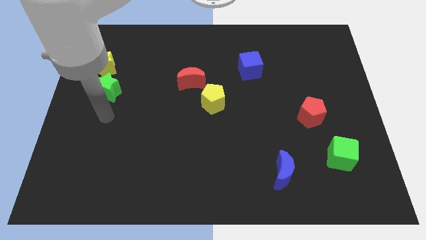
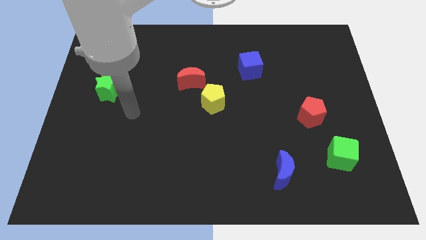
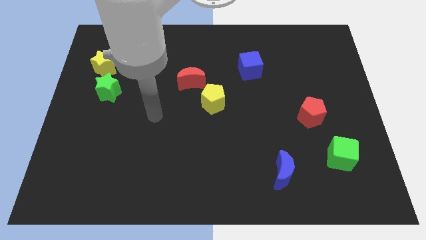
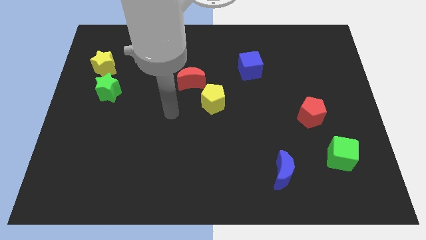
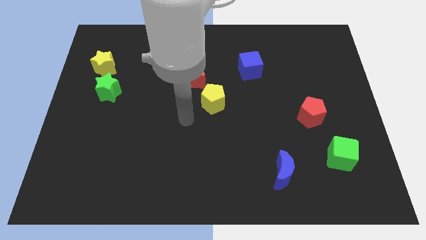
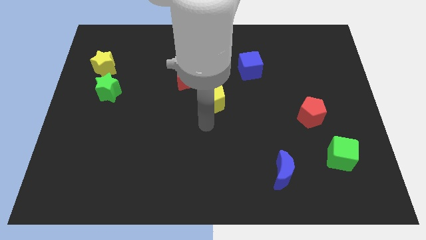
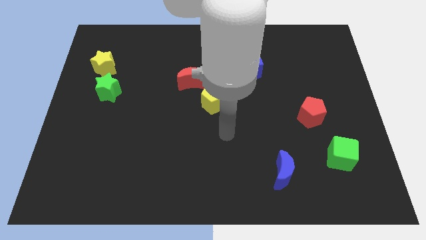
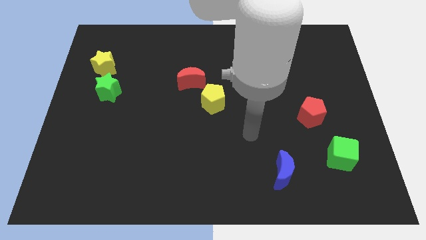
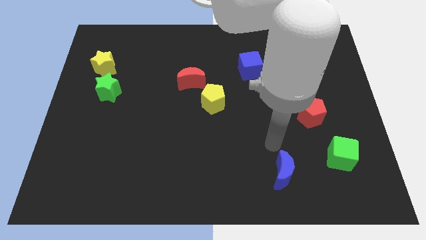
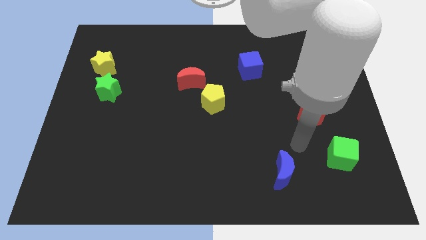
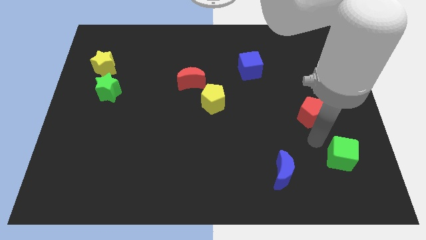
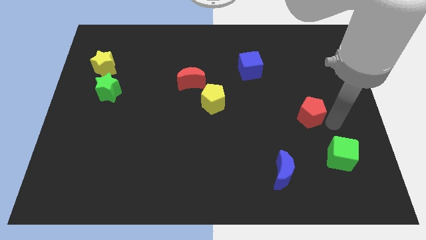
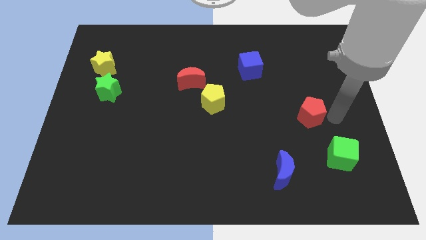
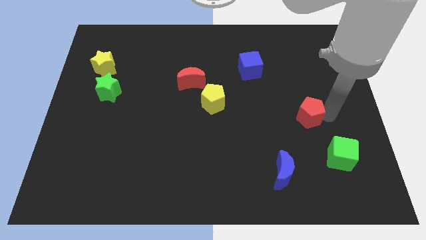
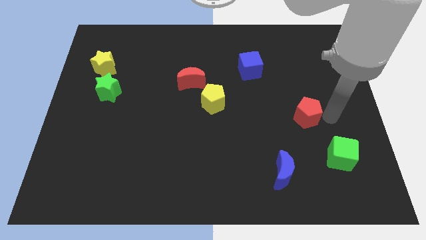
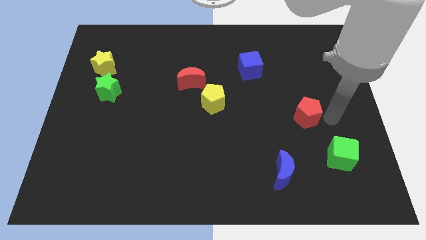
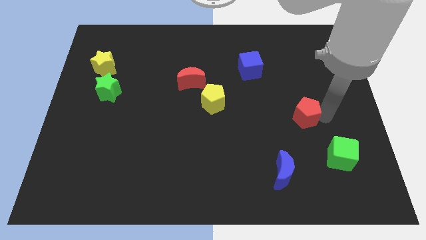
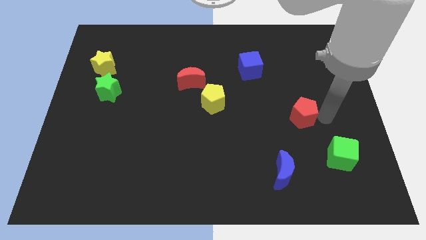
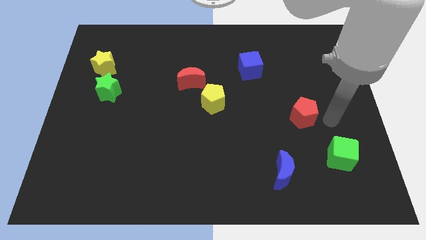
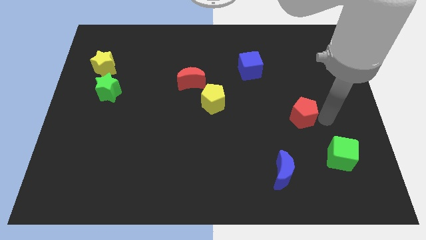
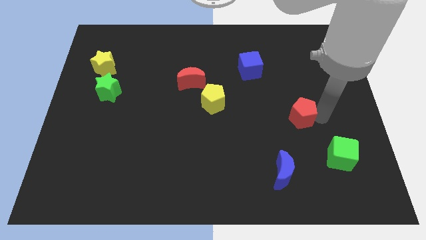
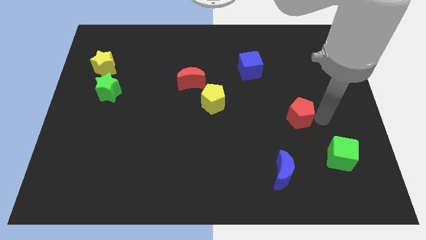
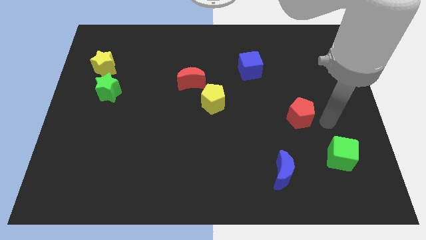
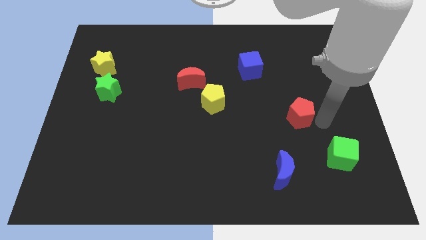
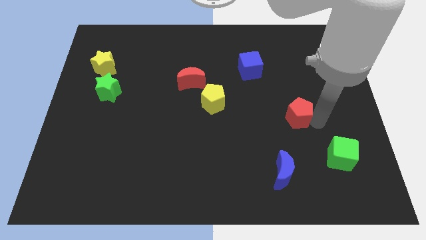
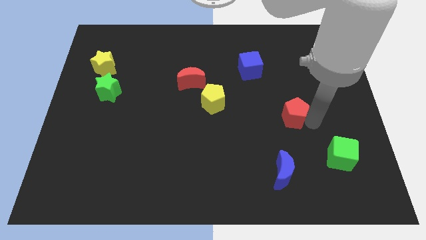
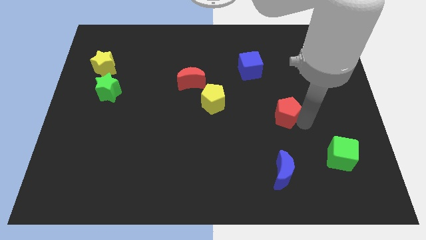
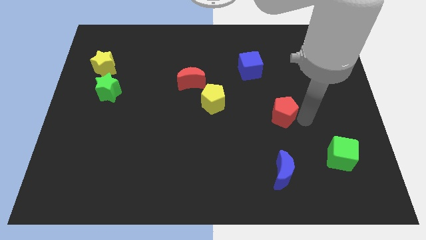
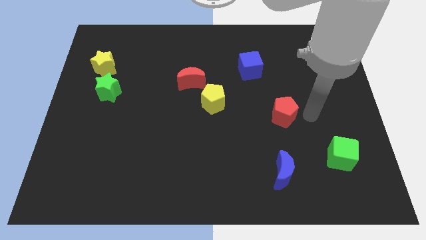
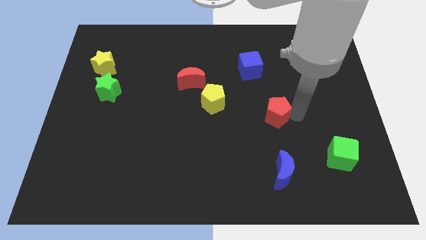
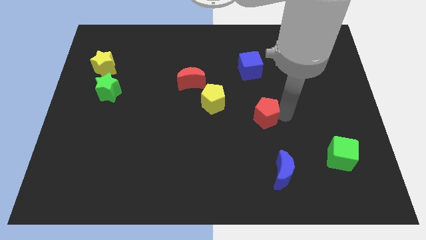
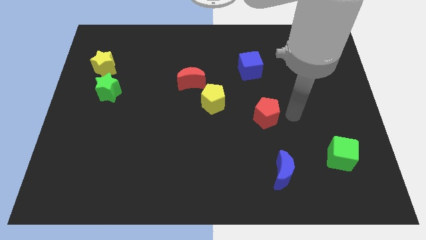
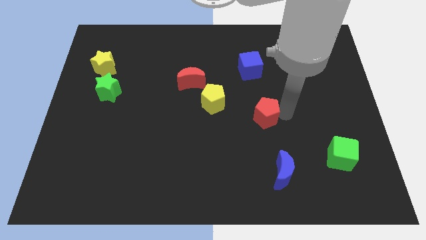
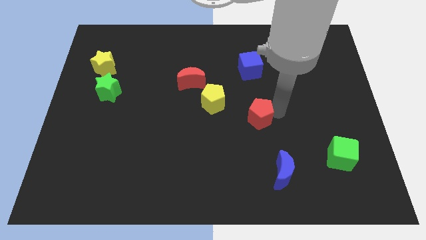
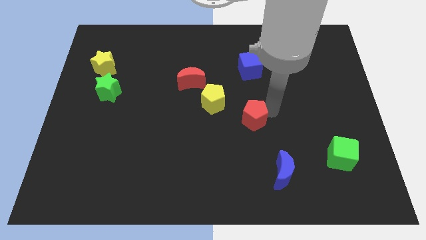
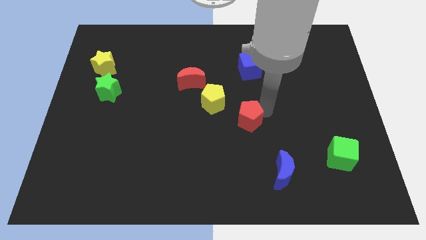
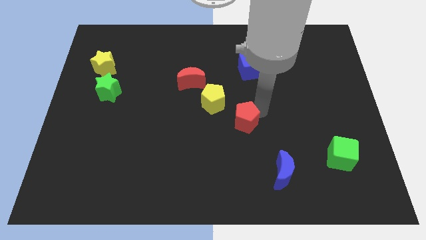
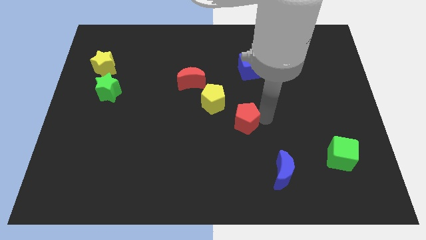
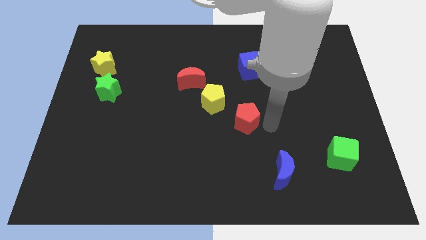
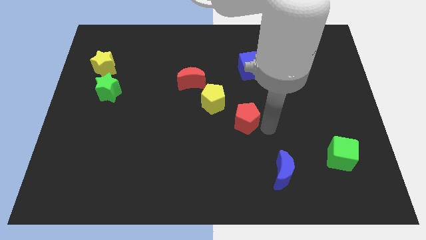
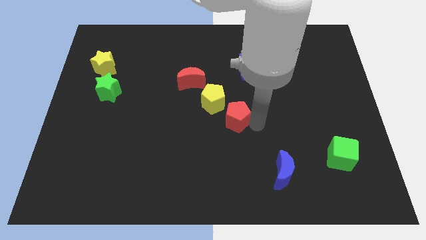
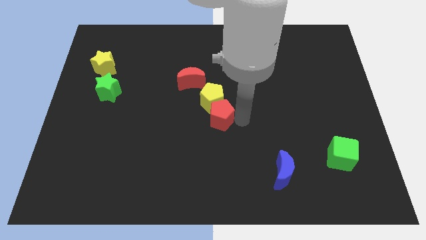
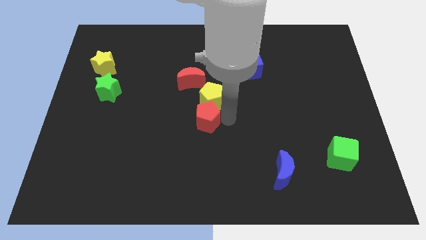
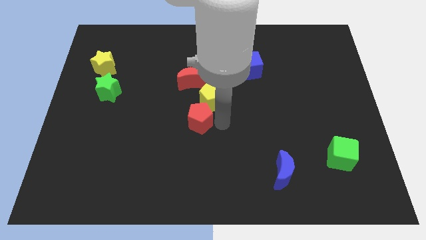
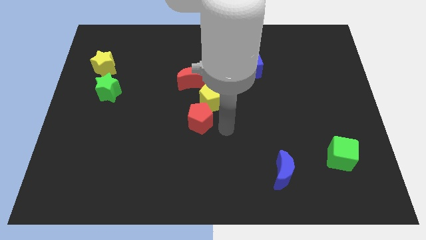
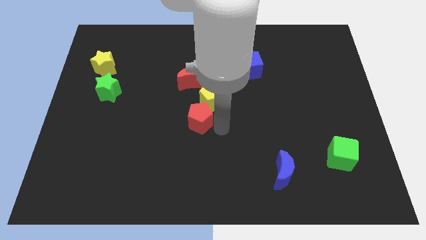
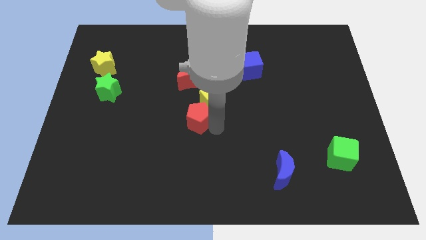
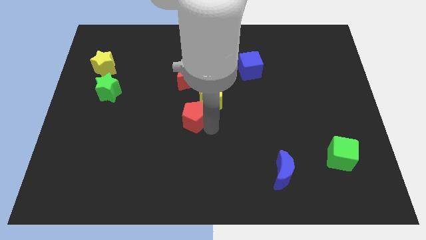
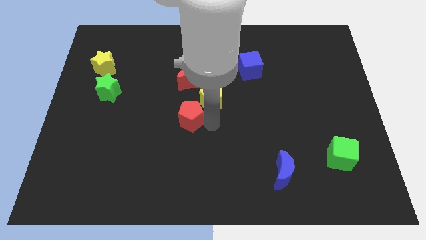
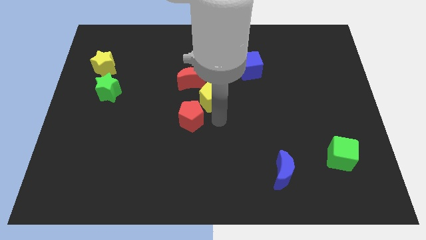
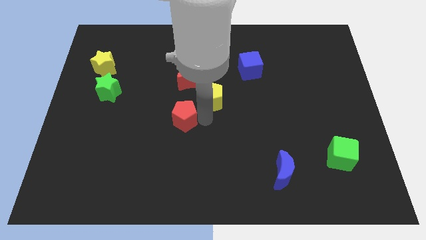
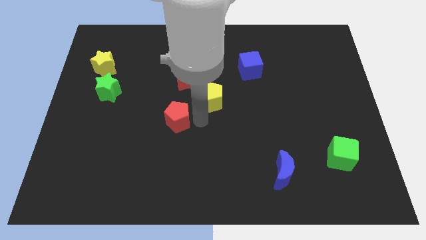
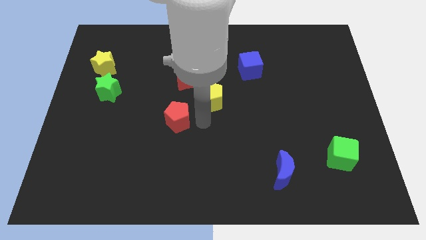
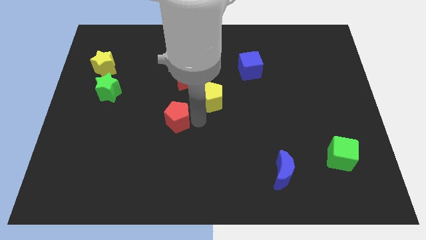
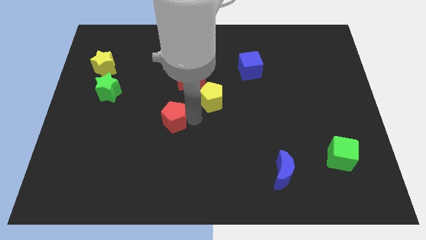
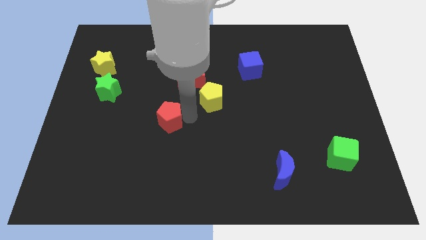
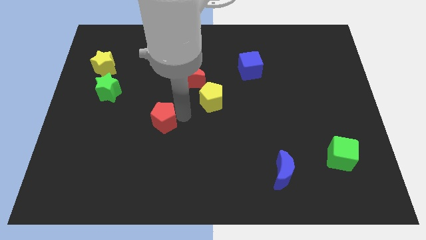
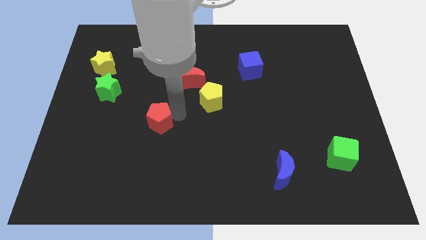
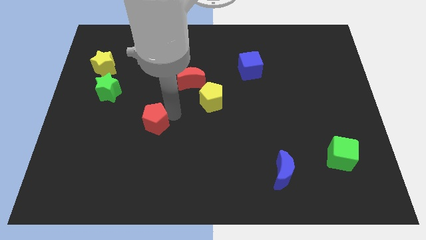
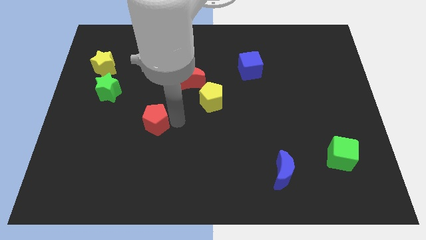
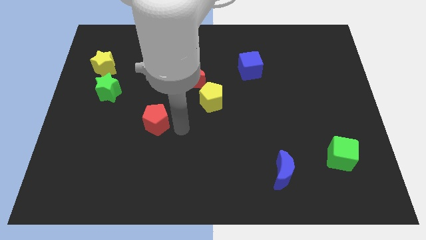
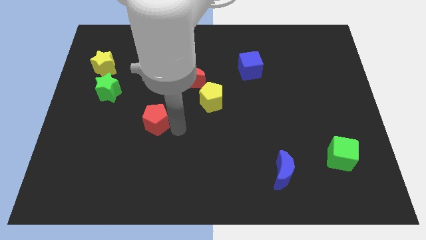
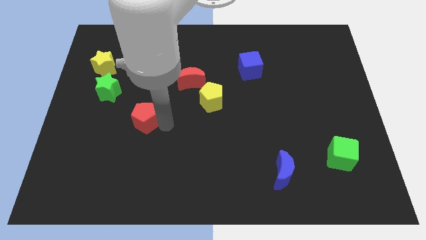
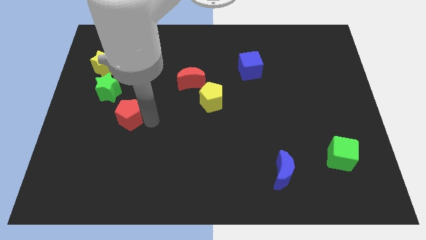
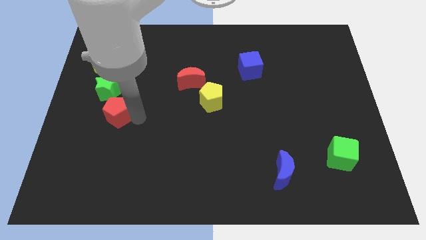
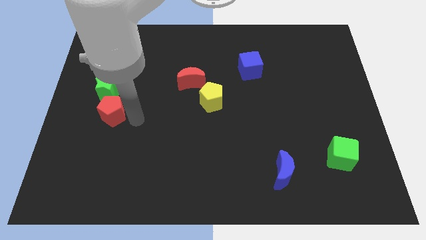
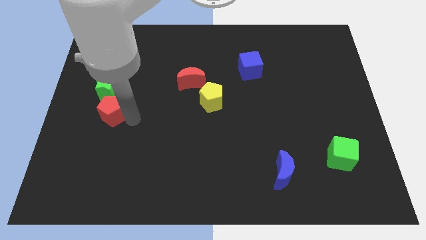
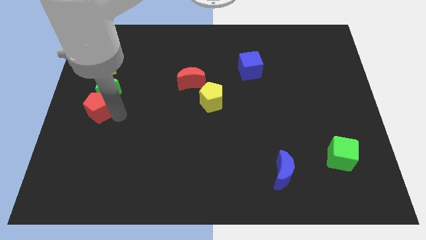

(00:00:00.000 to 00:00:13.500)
push the red pentagon to the left side

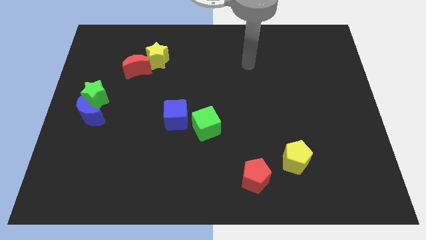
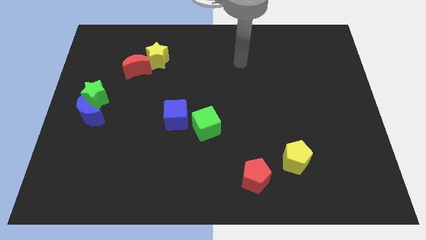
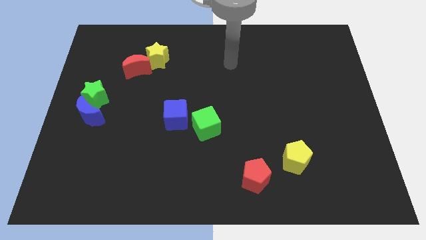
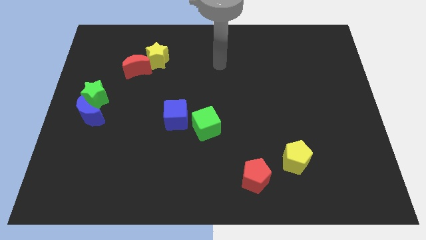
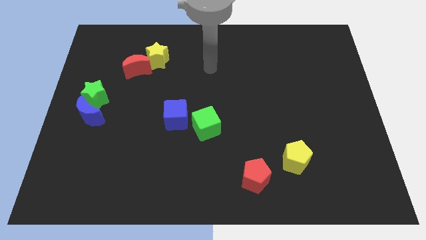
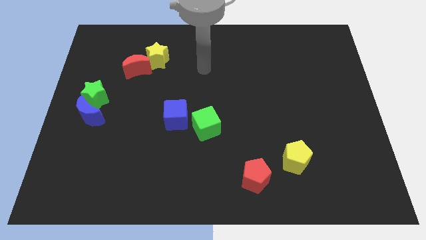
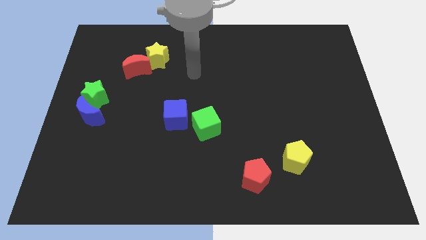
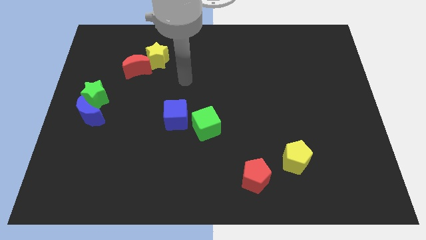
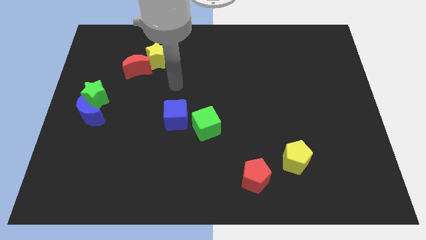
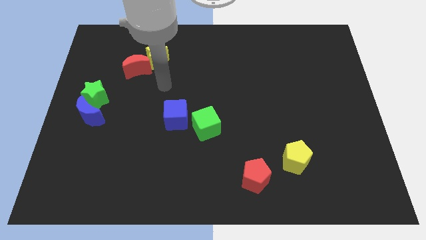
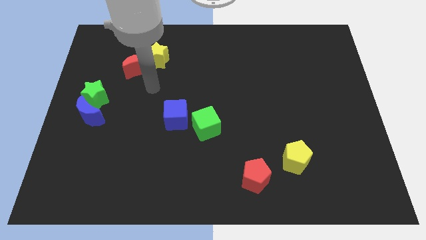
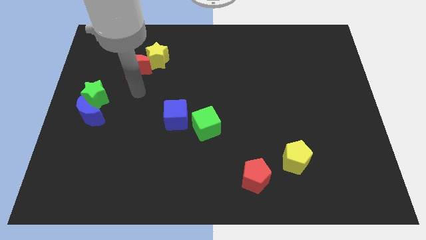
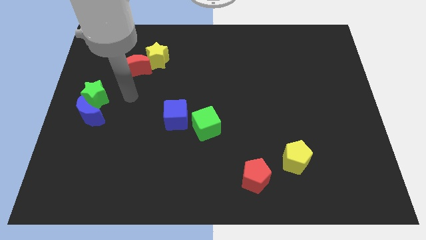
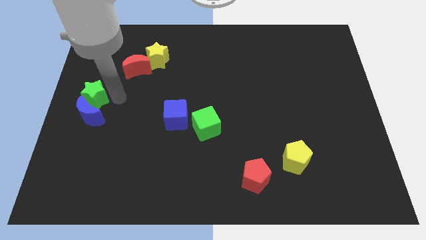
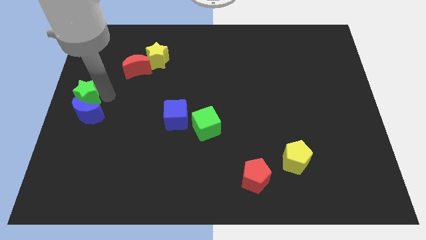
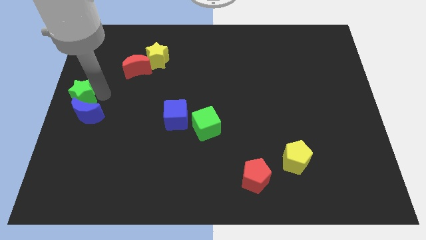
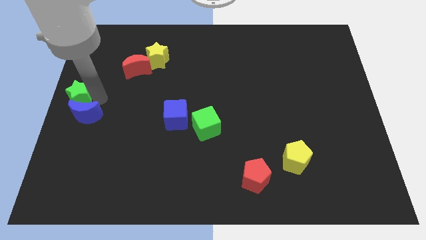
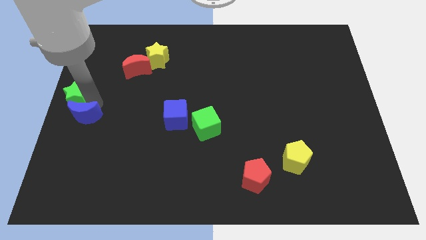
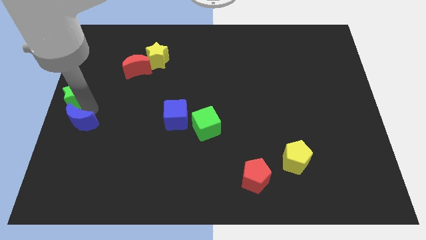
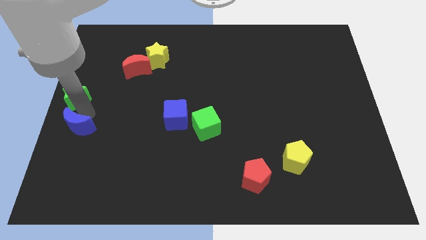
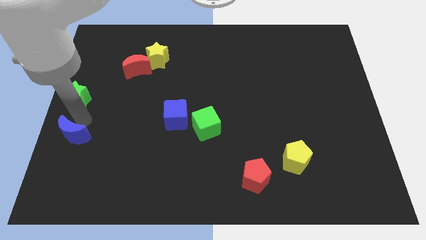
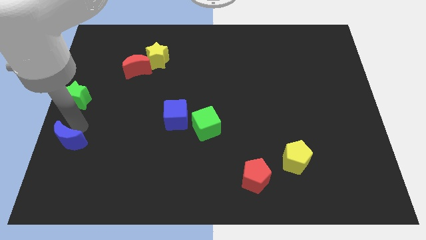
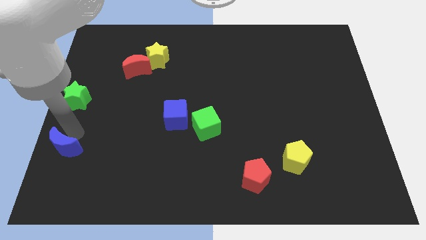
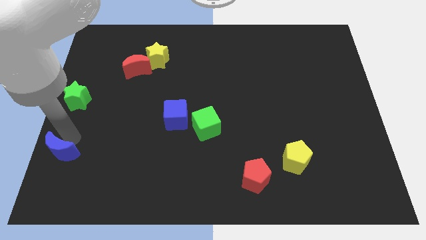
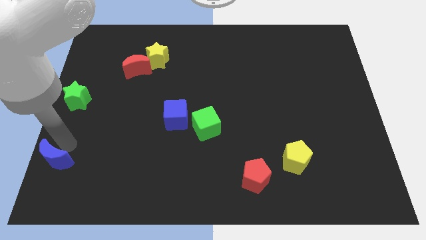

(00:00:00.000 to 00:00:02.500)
move the blue moon to the bottom left
